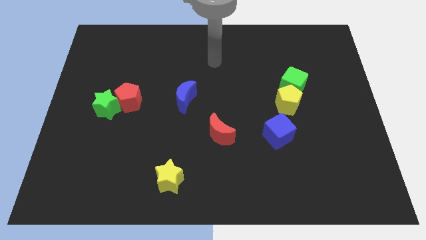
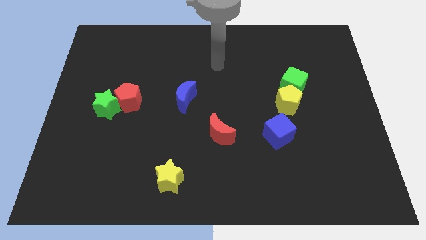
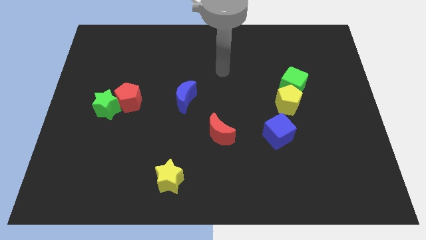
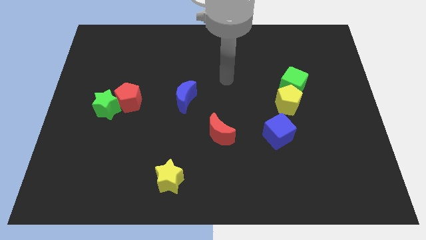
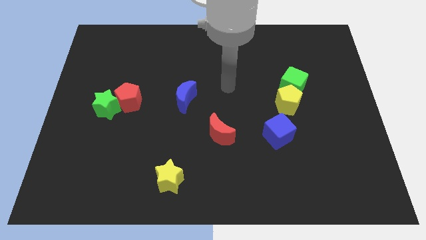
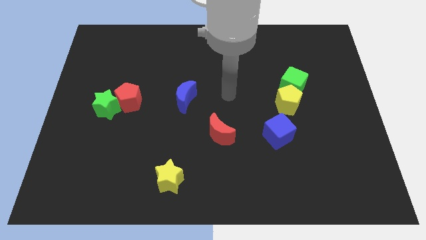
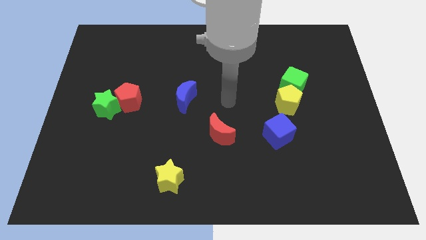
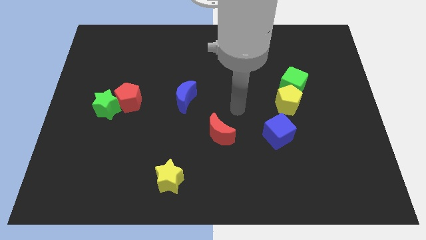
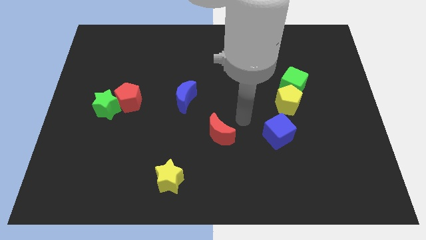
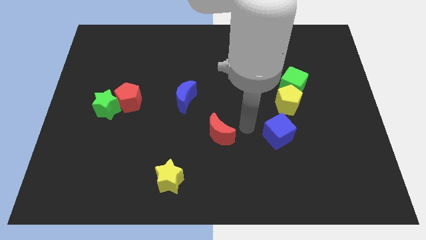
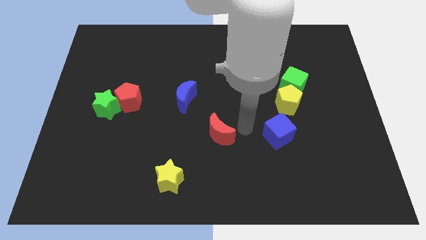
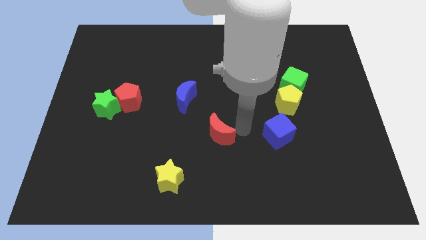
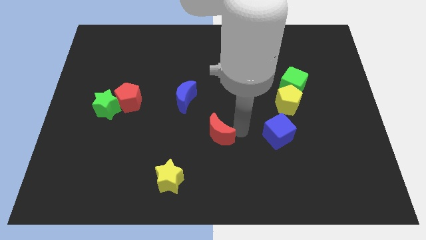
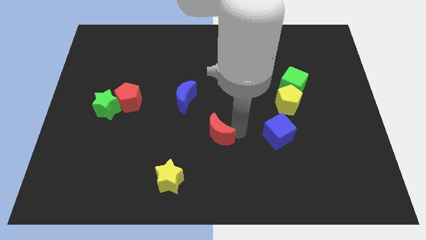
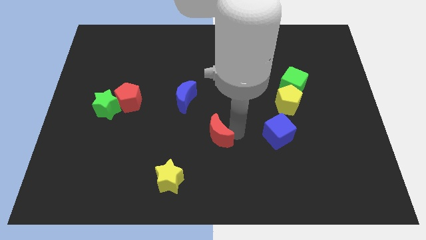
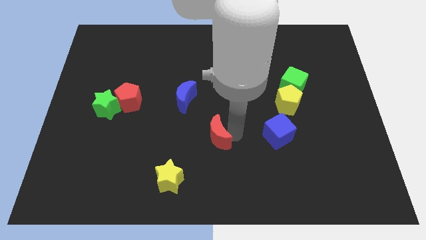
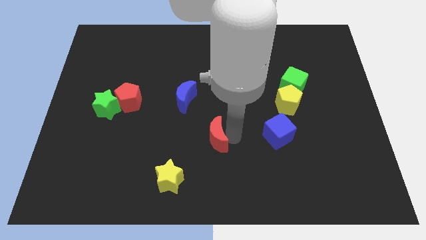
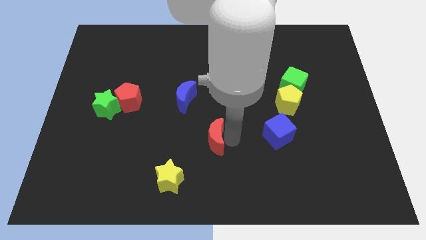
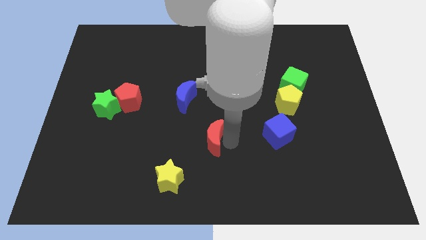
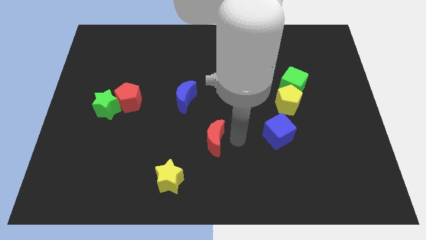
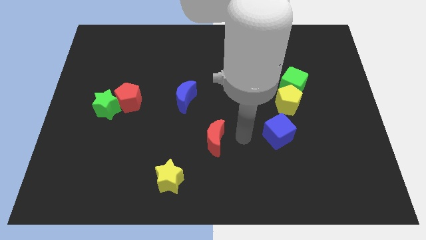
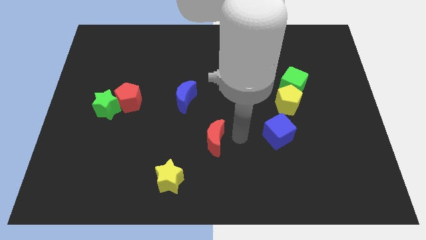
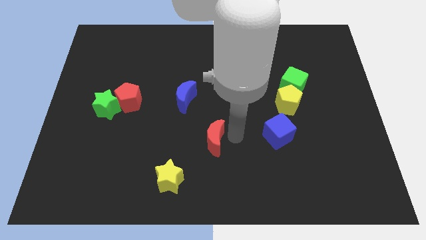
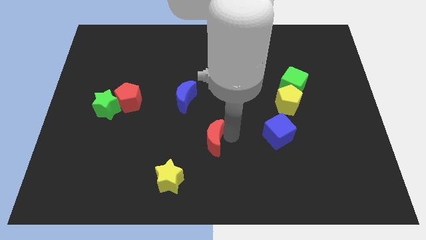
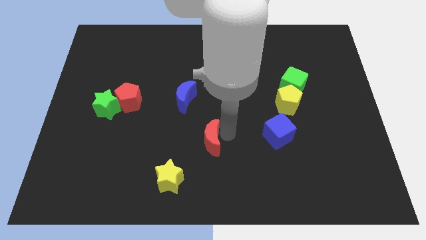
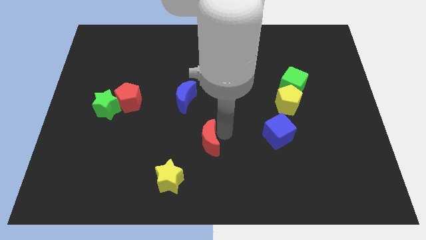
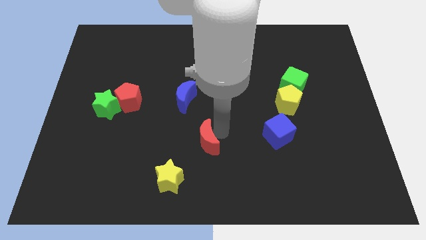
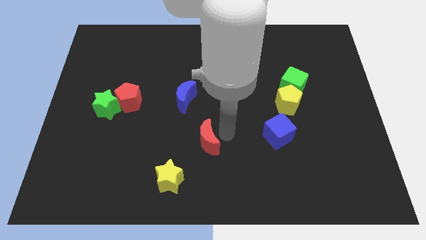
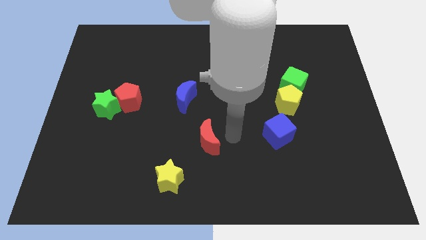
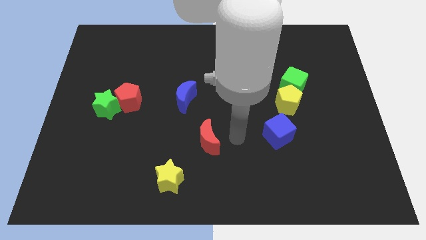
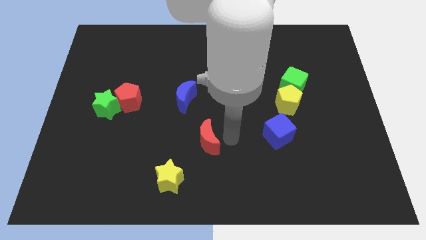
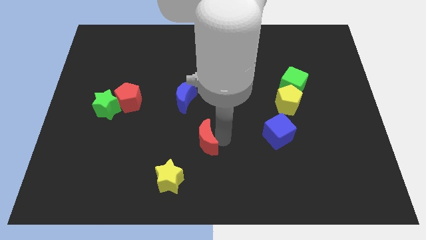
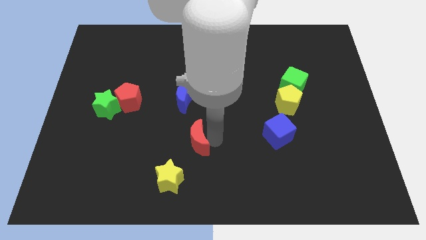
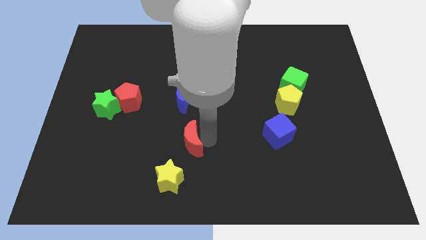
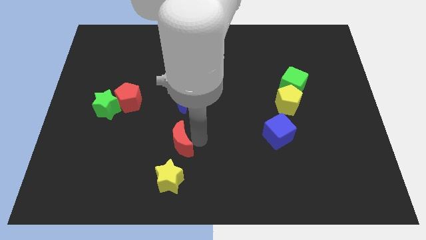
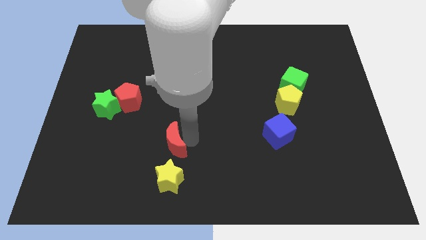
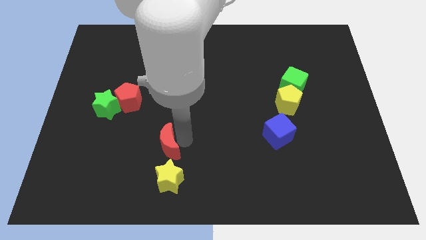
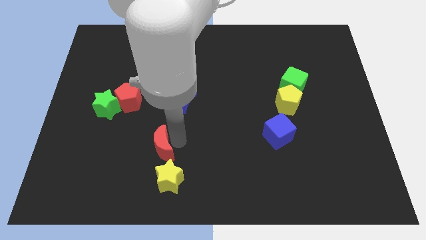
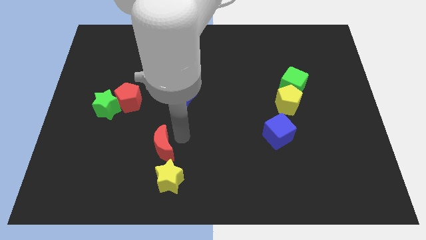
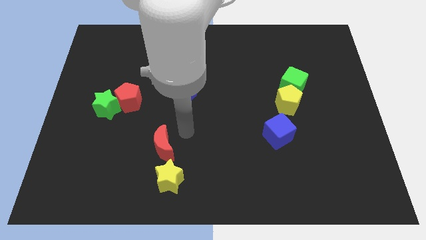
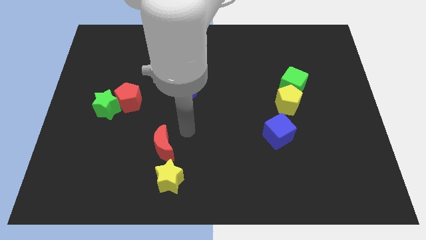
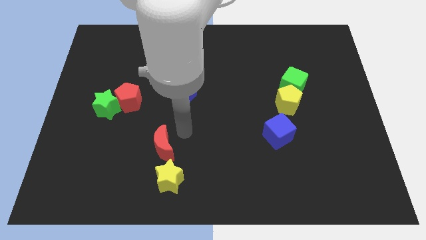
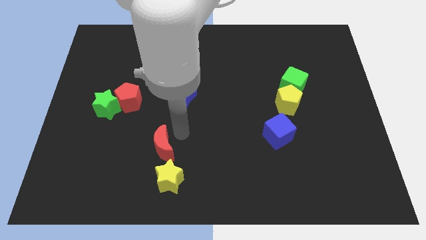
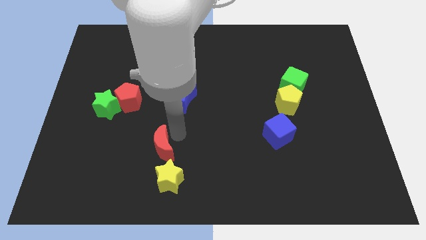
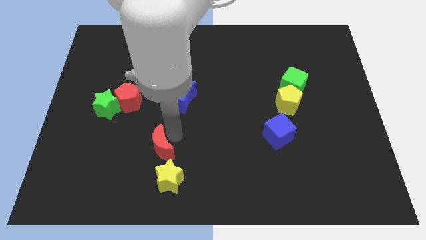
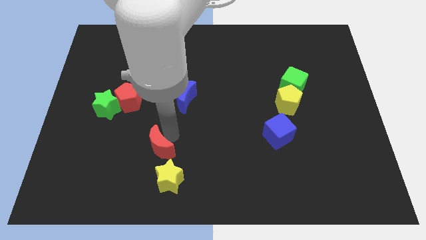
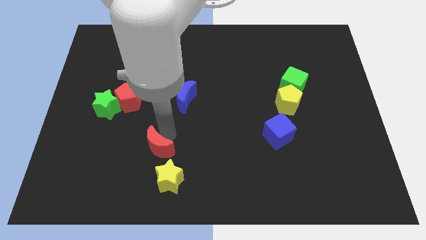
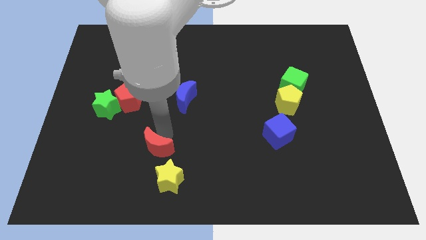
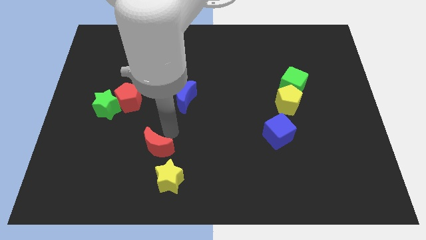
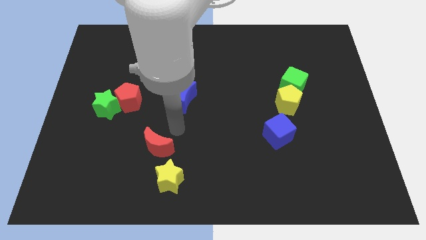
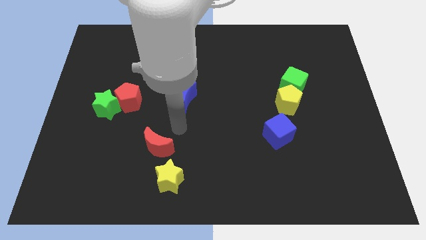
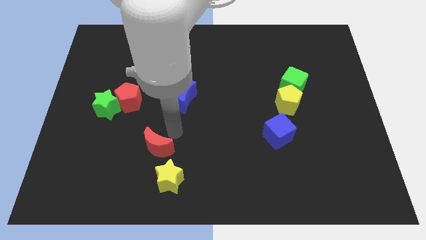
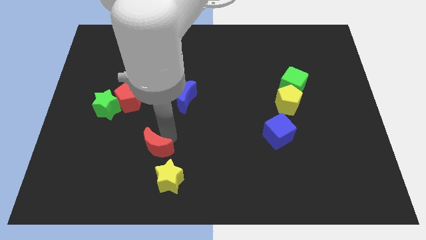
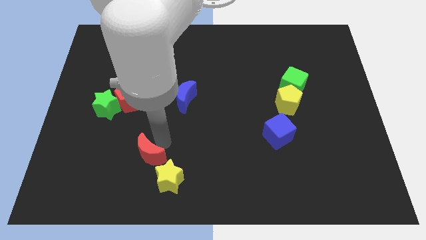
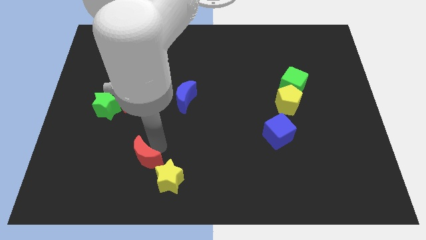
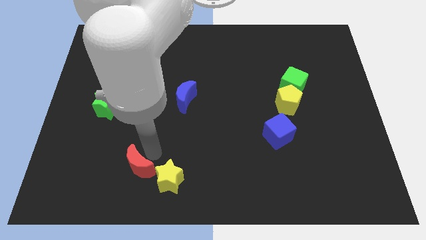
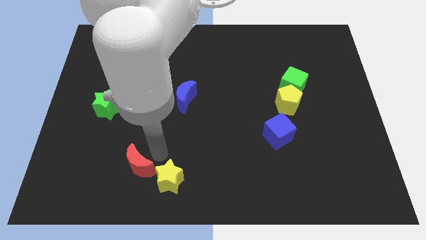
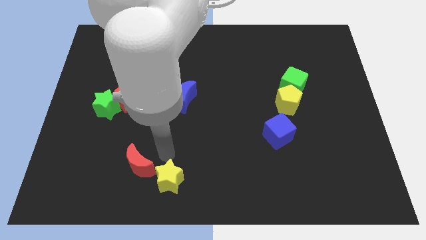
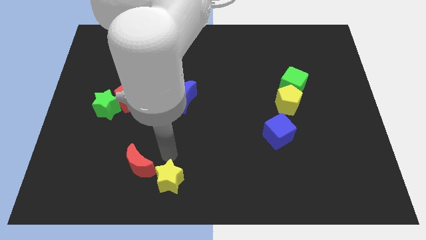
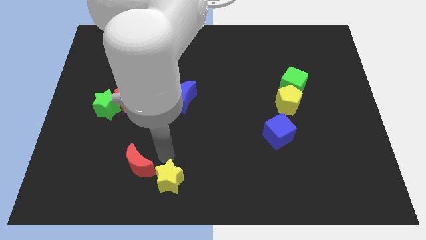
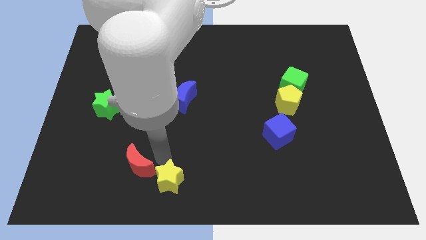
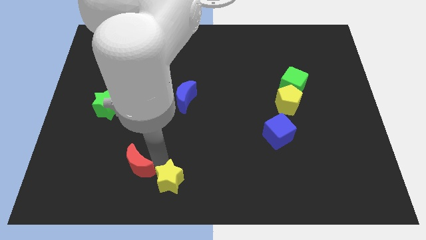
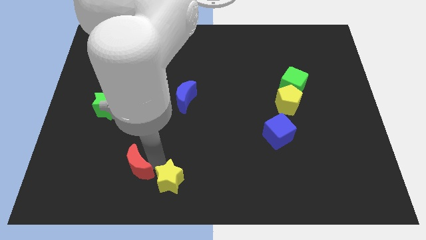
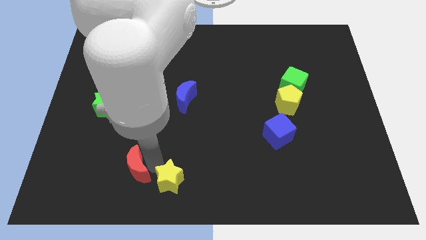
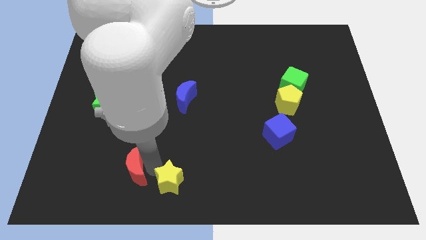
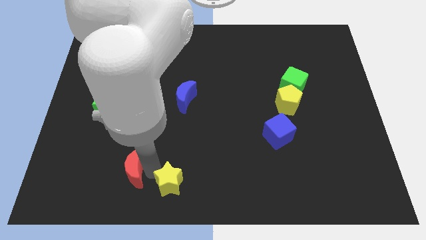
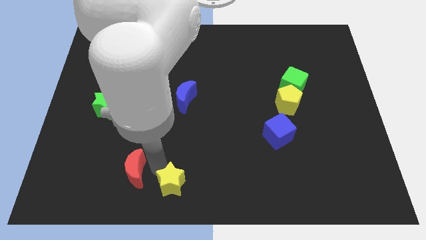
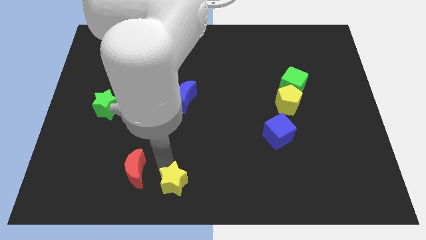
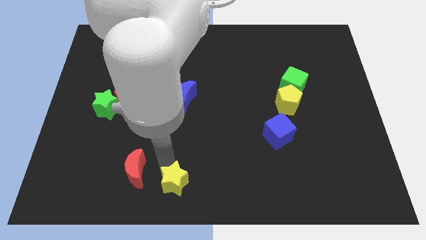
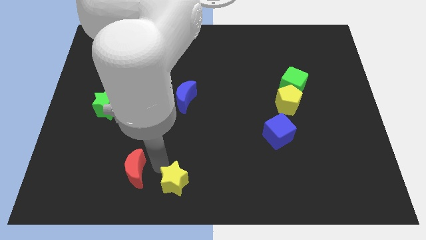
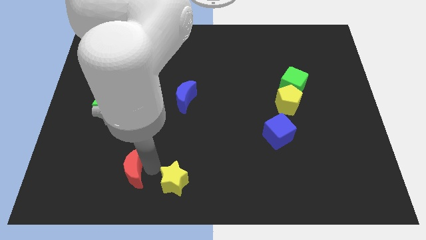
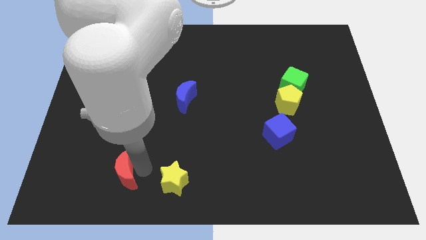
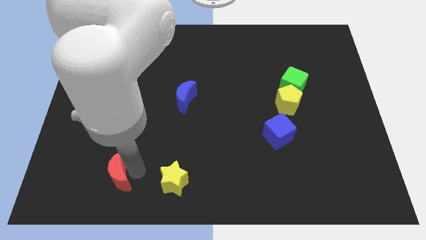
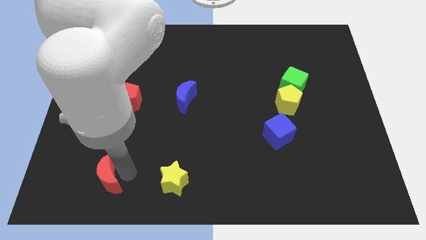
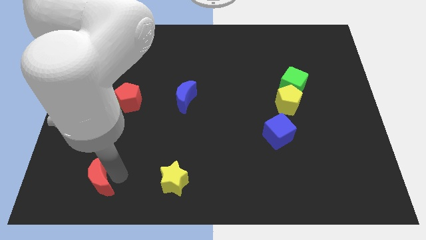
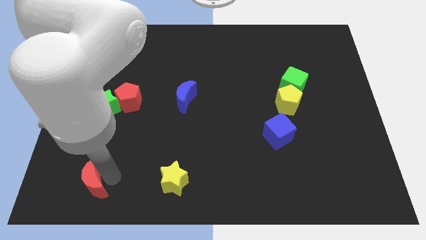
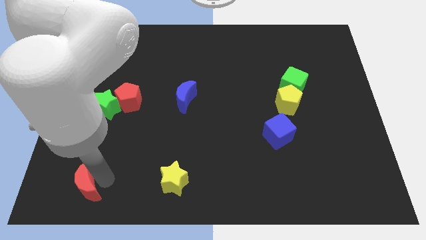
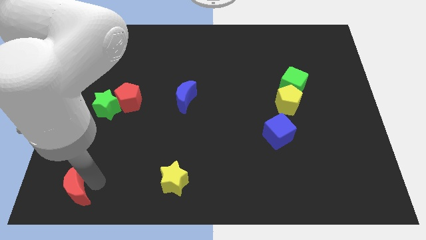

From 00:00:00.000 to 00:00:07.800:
move the red moon to the bottom left corner
